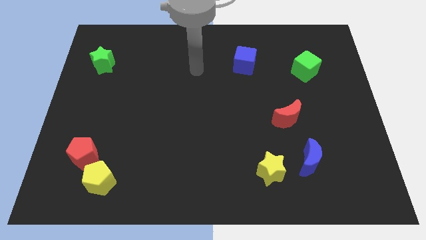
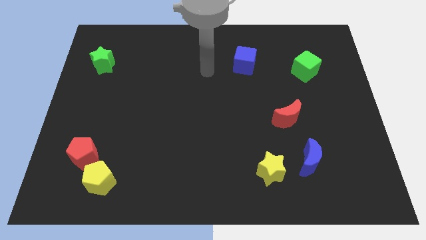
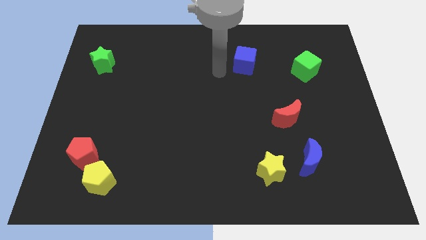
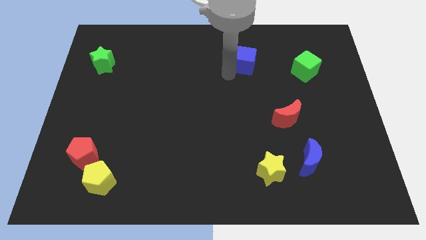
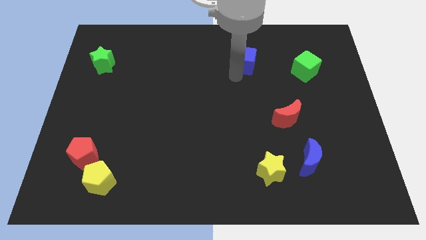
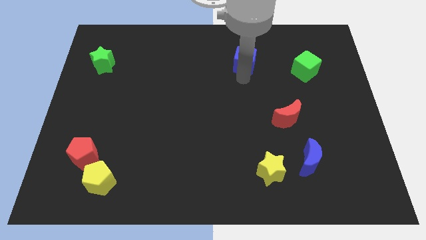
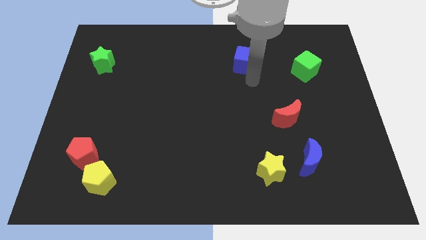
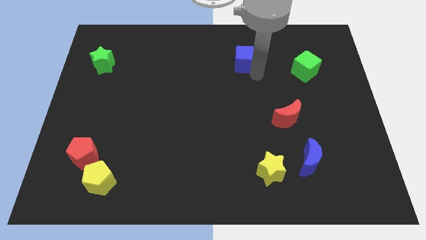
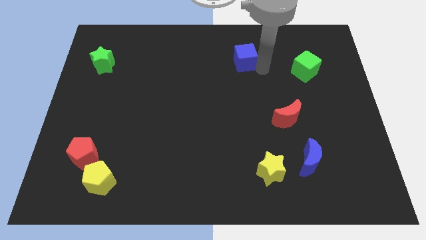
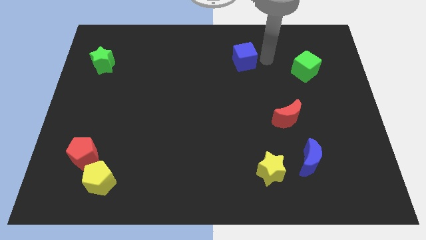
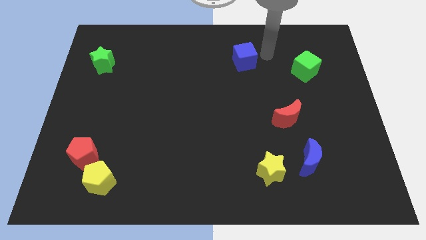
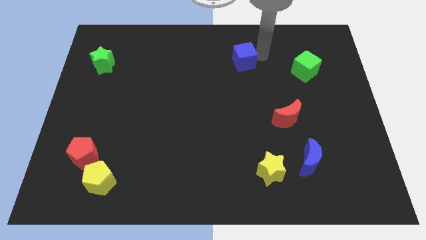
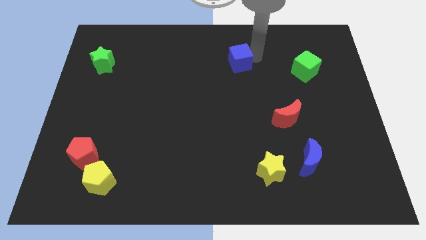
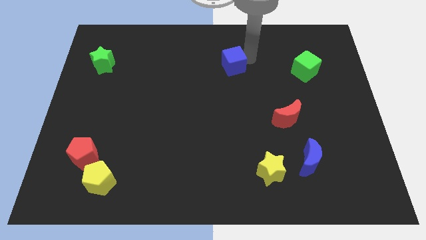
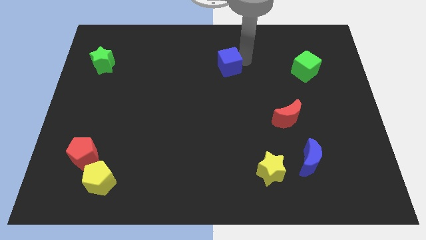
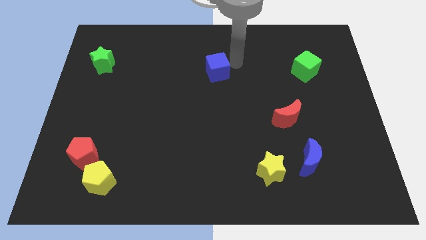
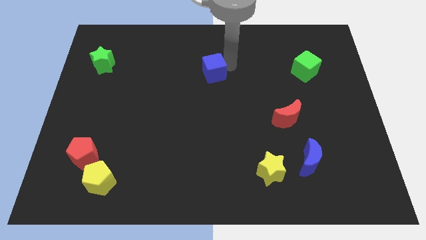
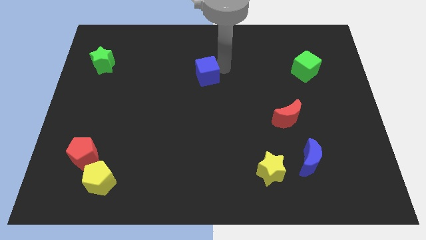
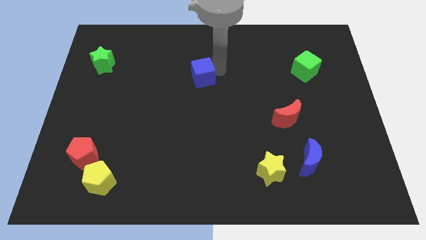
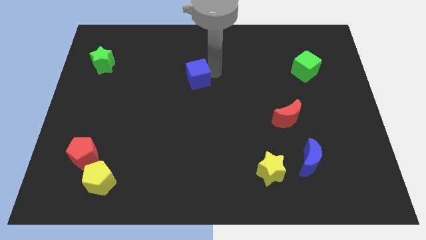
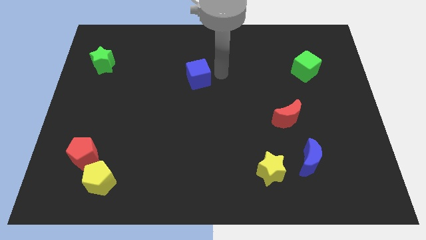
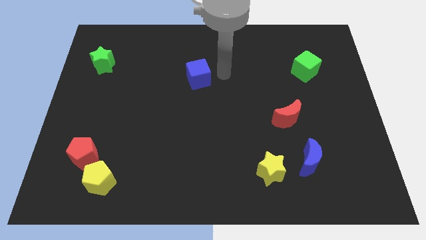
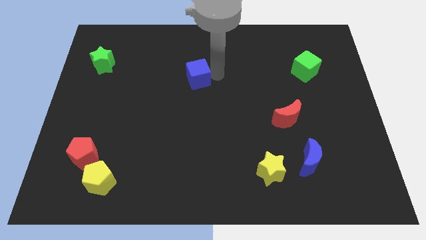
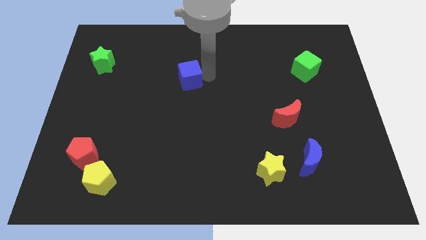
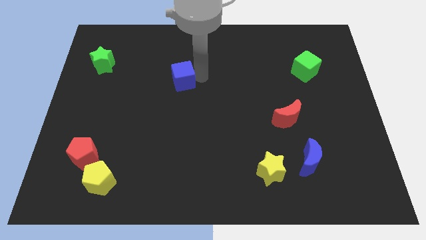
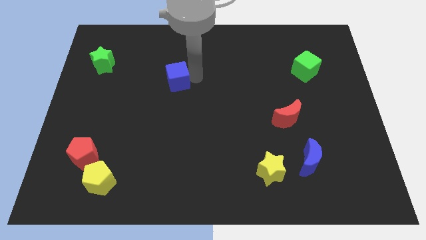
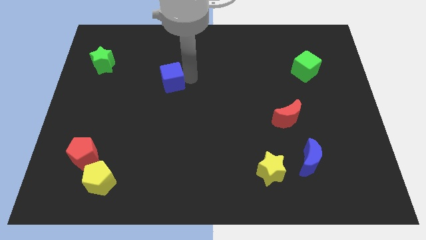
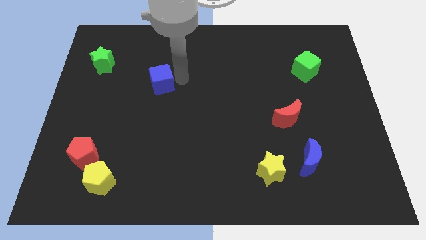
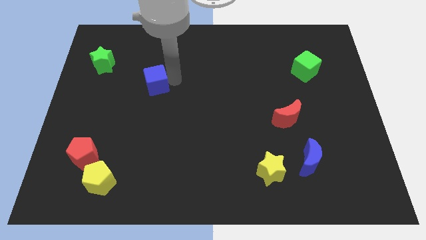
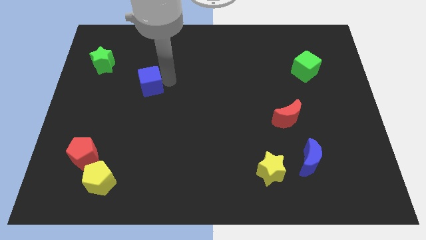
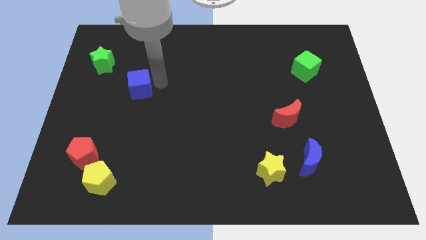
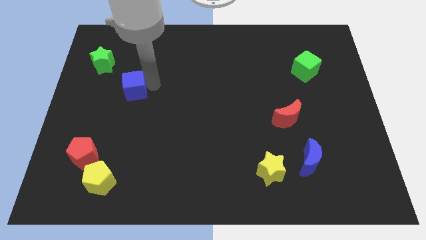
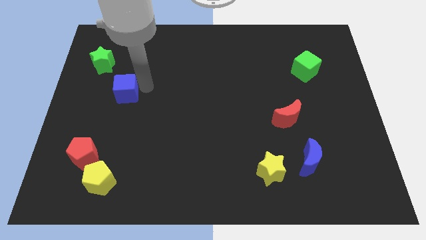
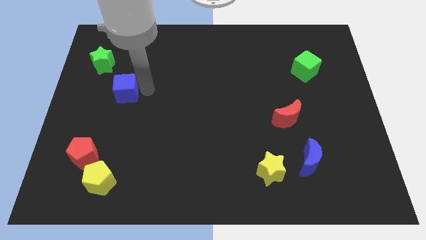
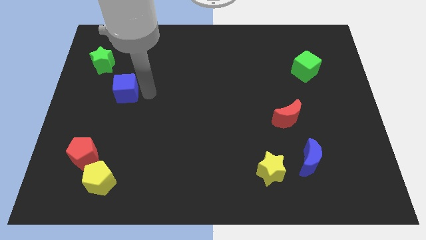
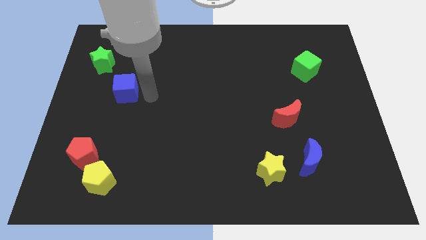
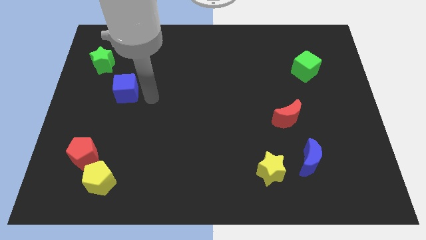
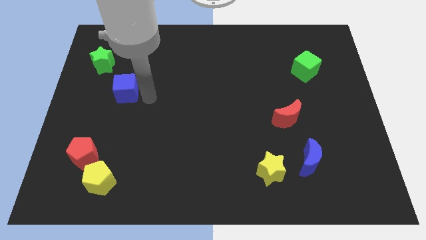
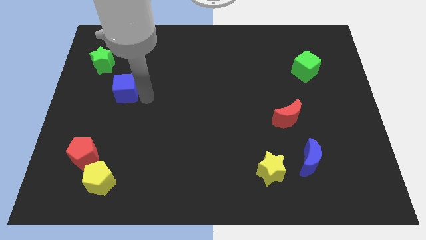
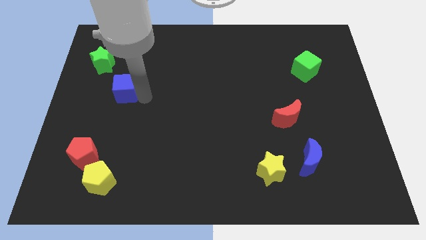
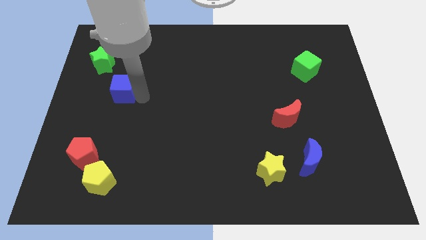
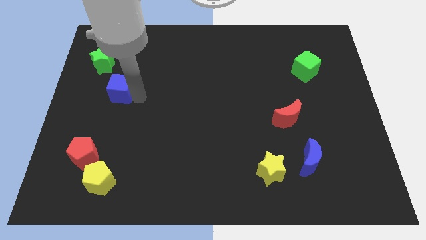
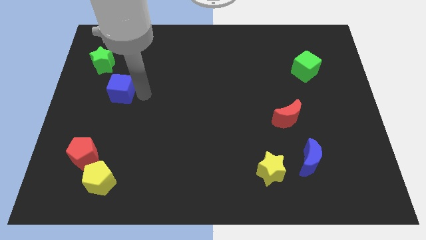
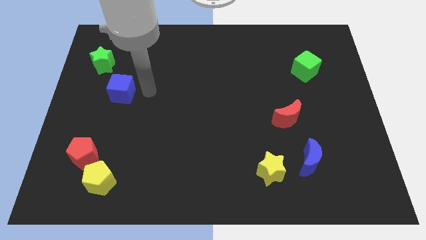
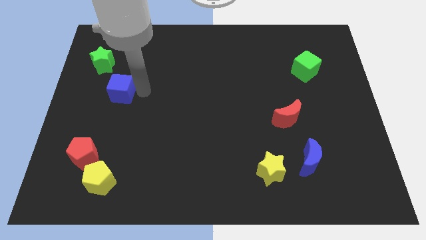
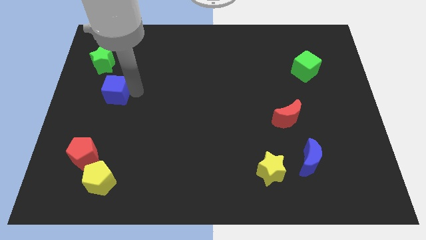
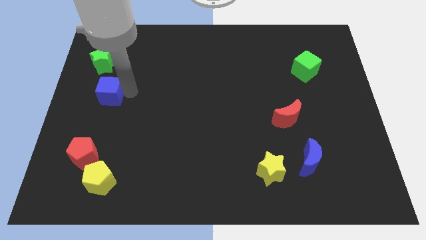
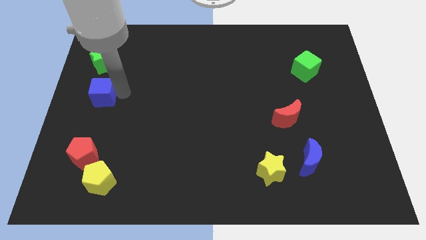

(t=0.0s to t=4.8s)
put the blue cube to the left side of the board

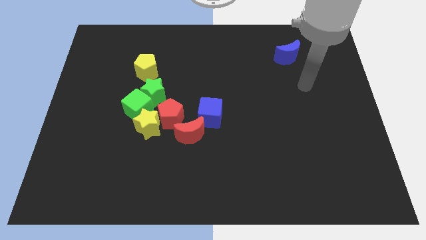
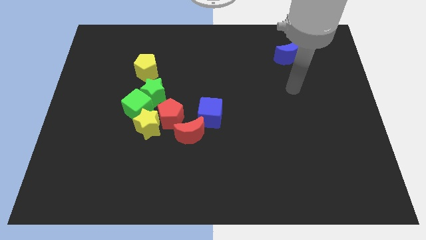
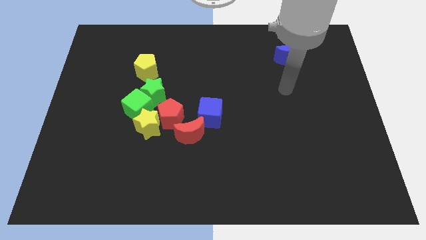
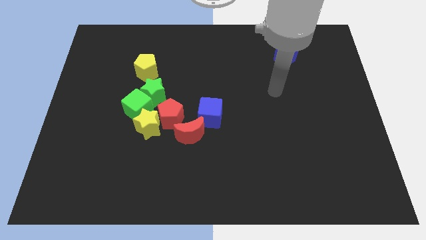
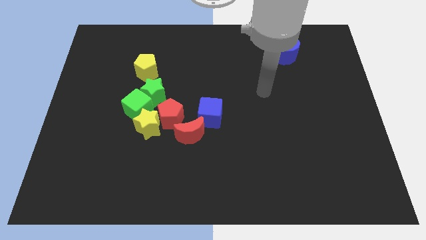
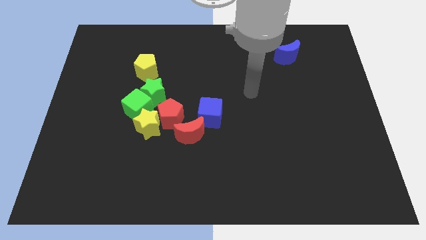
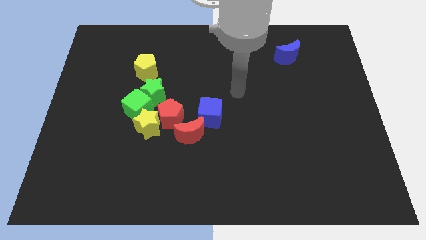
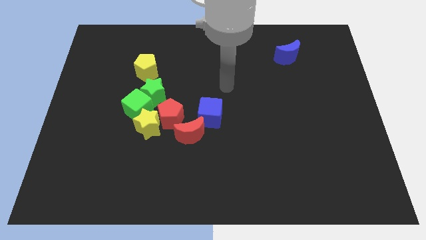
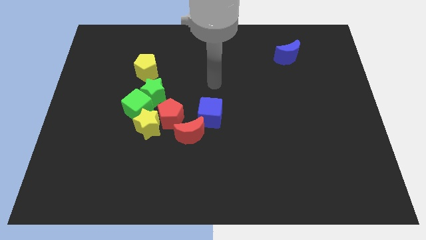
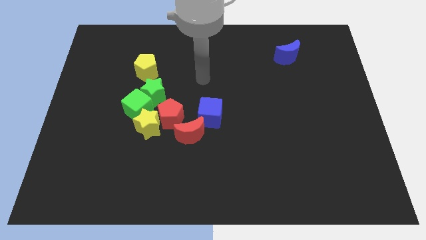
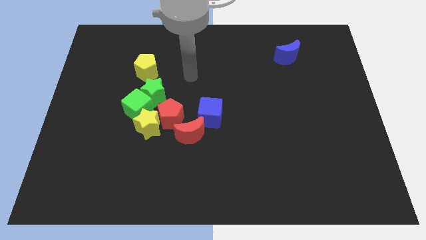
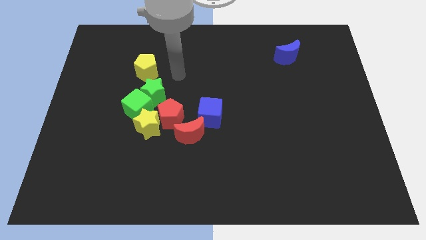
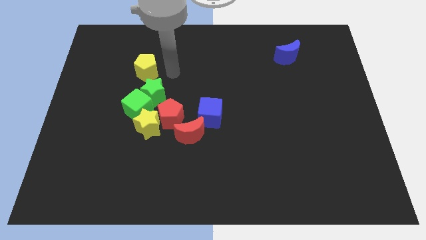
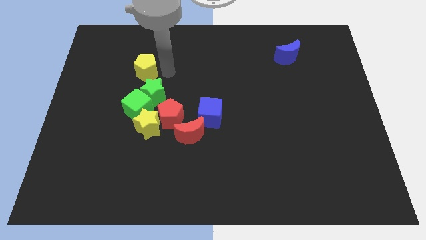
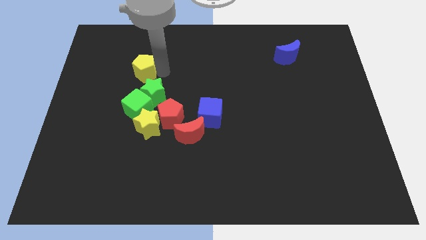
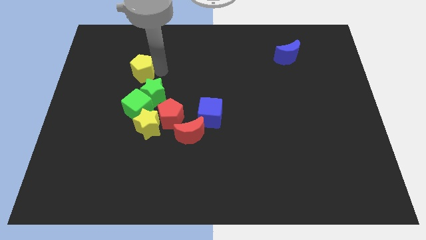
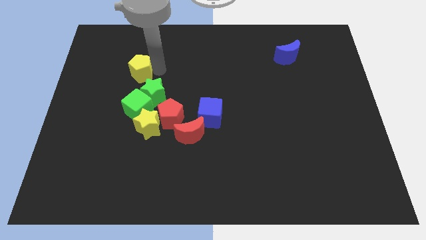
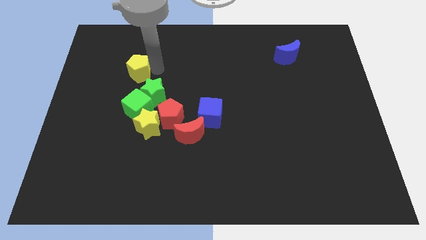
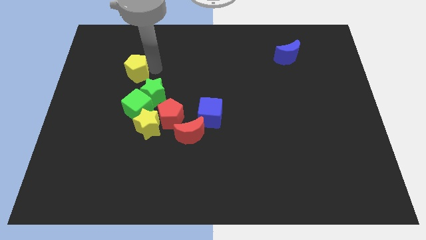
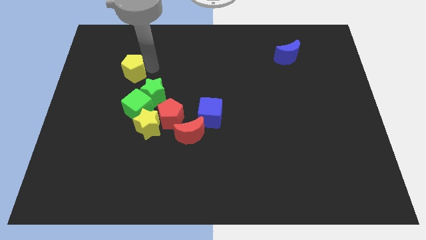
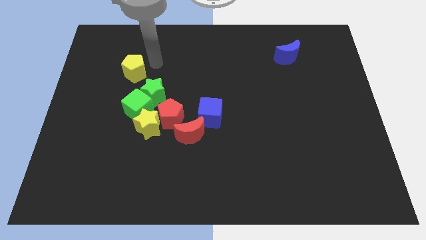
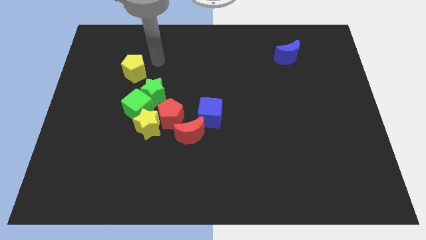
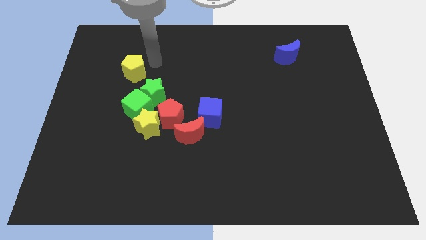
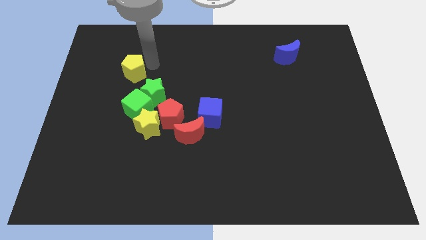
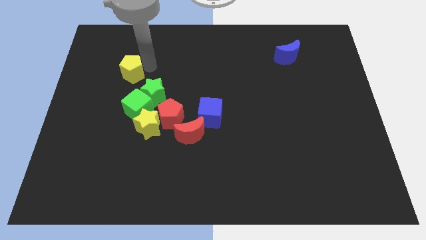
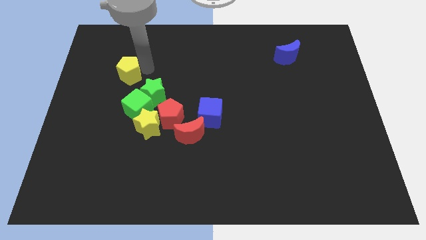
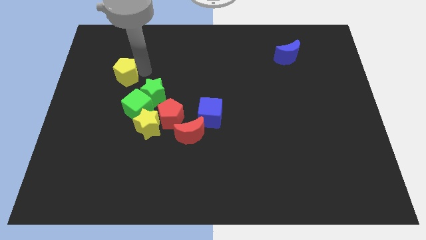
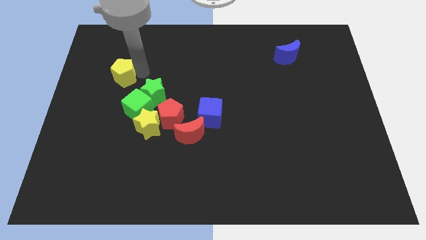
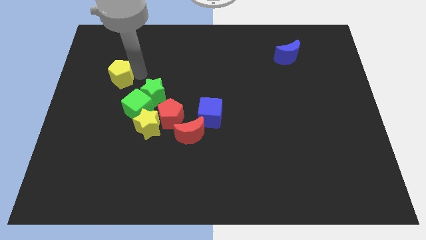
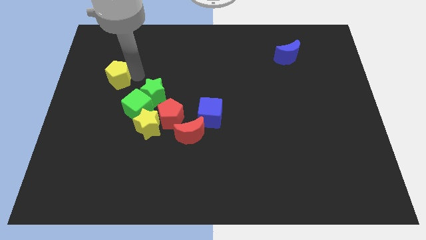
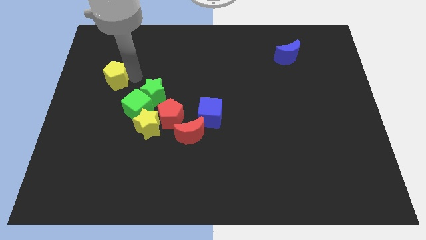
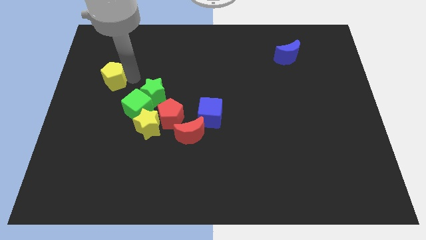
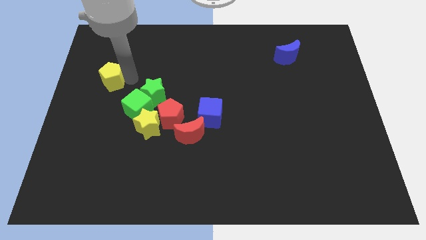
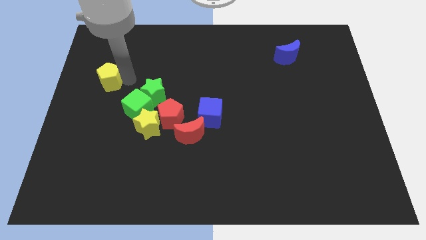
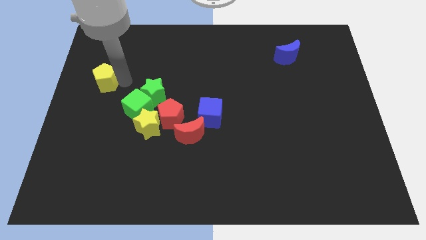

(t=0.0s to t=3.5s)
push the yellow pentagon to the left side of the board
